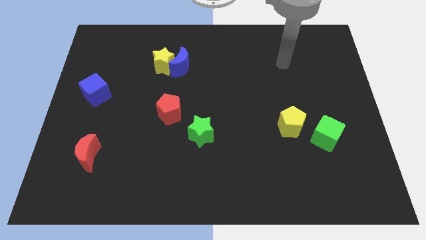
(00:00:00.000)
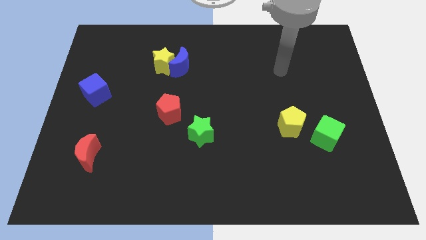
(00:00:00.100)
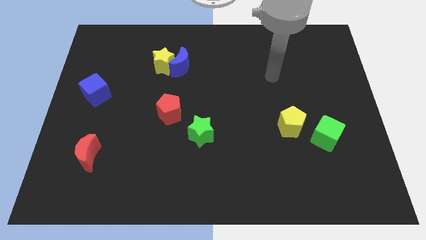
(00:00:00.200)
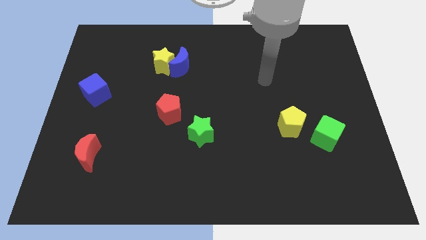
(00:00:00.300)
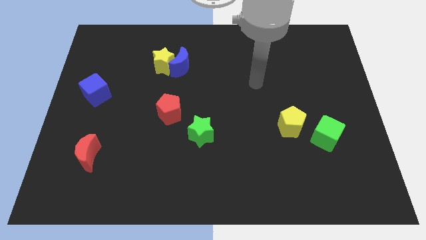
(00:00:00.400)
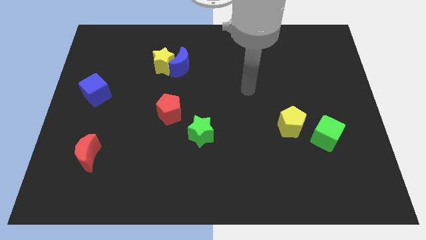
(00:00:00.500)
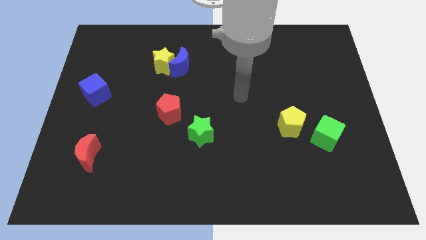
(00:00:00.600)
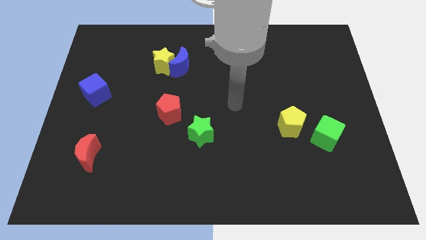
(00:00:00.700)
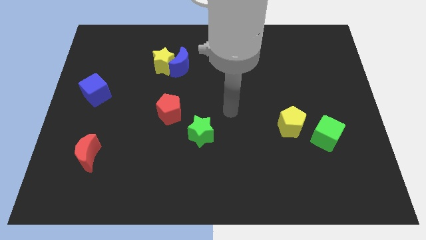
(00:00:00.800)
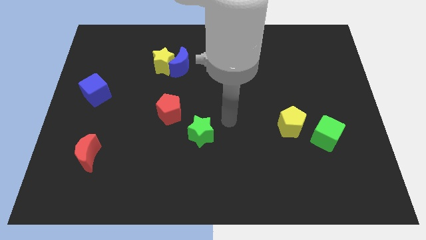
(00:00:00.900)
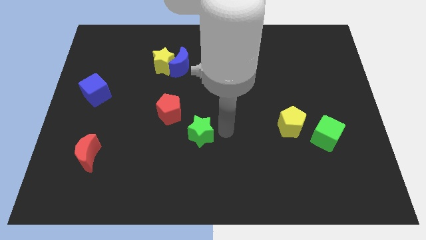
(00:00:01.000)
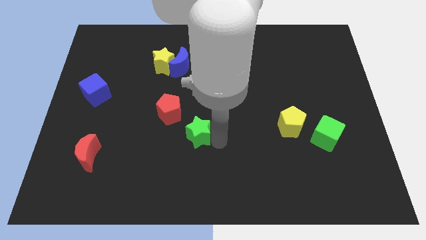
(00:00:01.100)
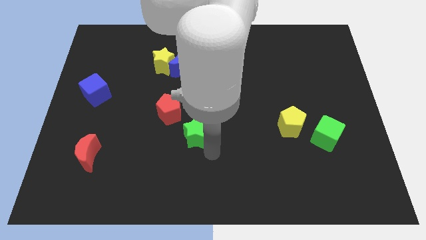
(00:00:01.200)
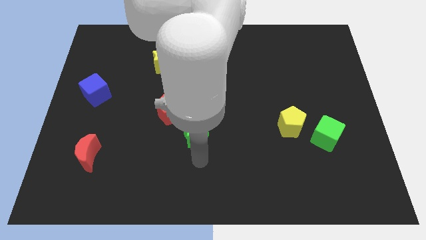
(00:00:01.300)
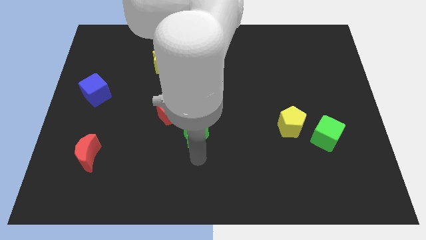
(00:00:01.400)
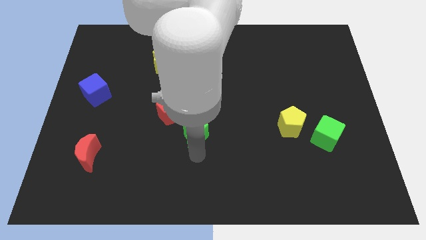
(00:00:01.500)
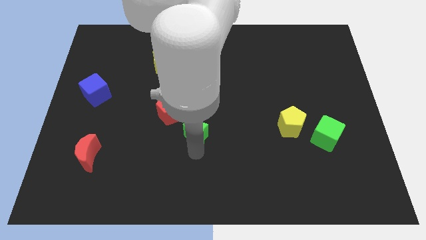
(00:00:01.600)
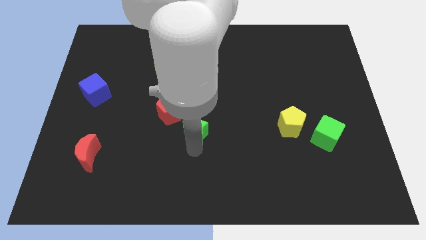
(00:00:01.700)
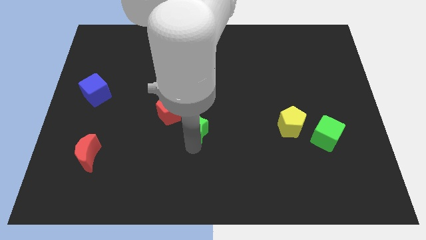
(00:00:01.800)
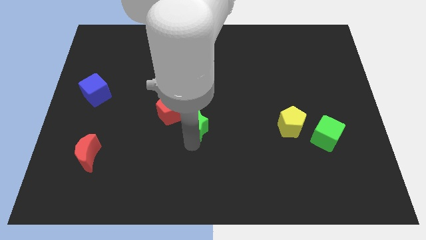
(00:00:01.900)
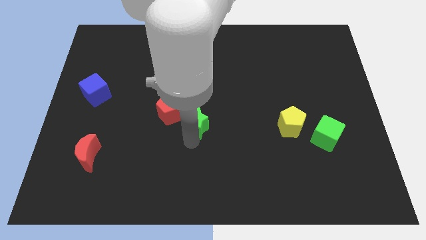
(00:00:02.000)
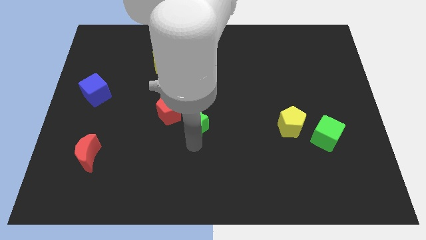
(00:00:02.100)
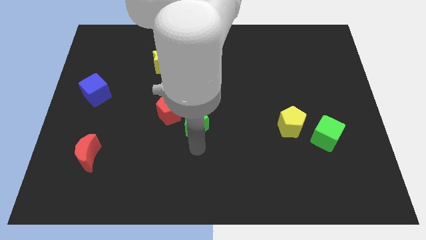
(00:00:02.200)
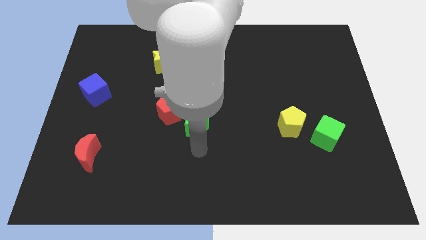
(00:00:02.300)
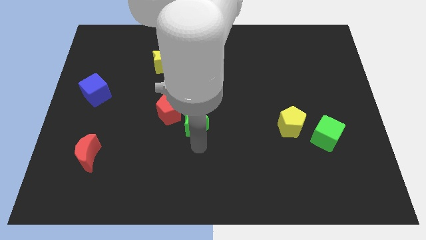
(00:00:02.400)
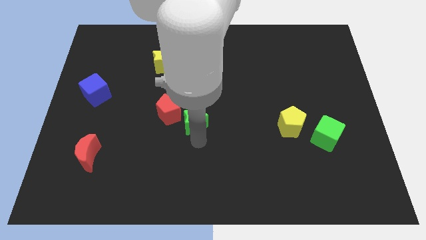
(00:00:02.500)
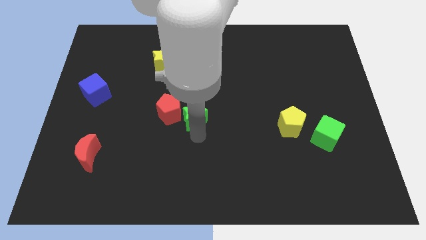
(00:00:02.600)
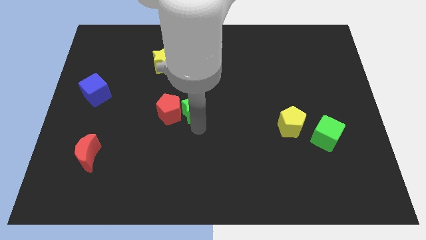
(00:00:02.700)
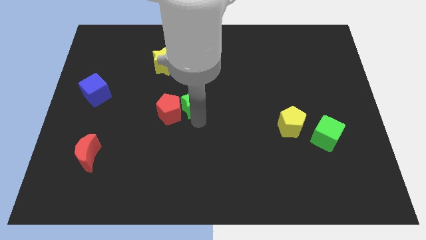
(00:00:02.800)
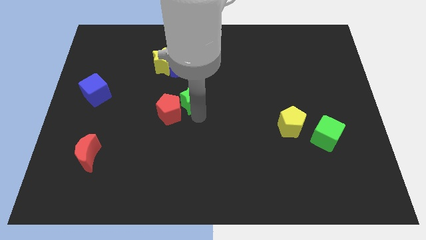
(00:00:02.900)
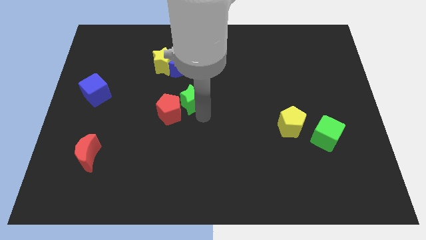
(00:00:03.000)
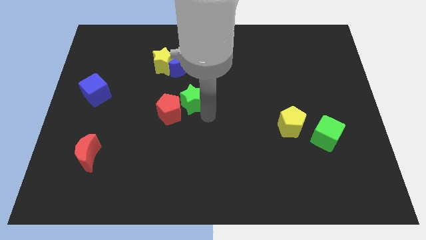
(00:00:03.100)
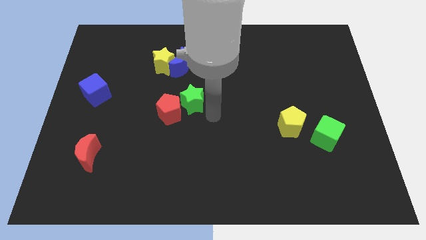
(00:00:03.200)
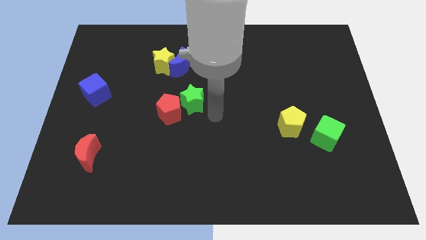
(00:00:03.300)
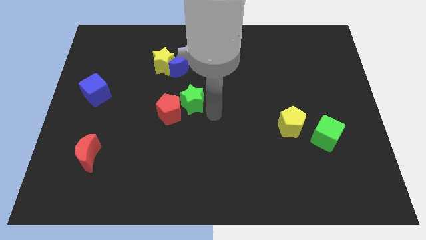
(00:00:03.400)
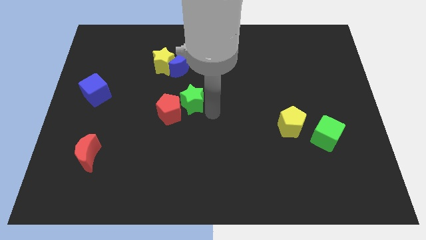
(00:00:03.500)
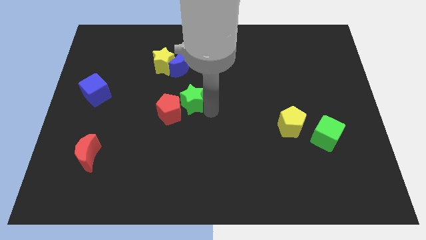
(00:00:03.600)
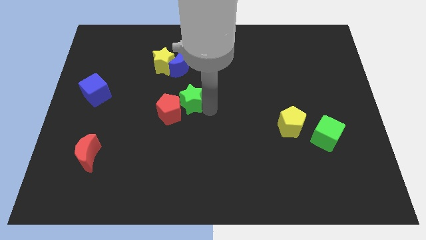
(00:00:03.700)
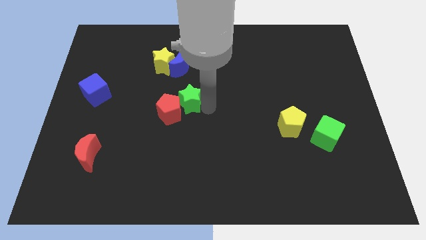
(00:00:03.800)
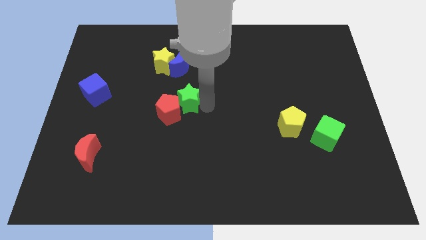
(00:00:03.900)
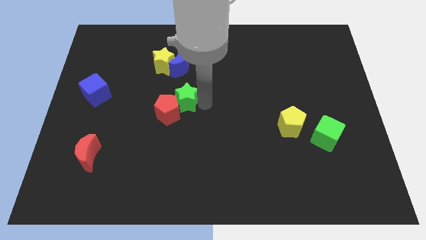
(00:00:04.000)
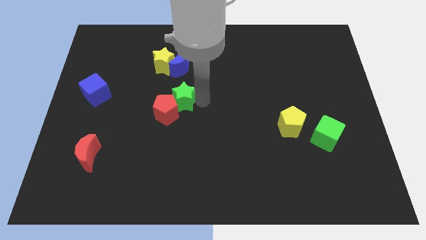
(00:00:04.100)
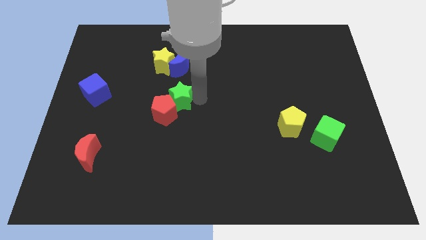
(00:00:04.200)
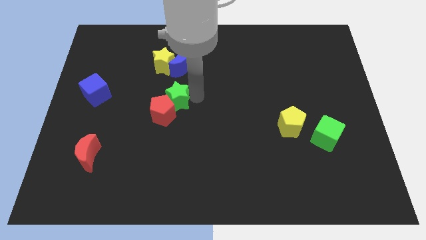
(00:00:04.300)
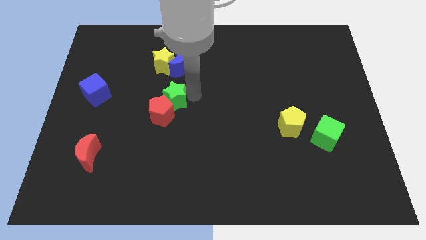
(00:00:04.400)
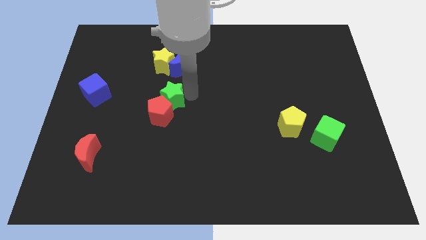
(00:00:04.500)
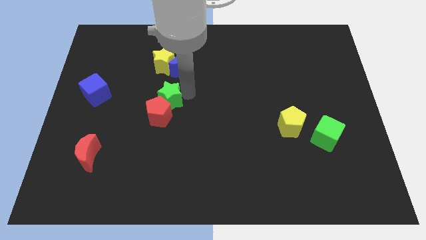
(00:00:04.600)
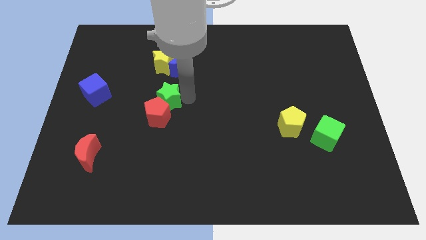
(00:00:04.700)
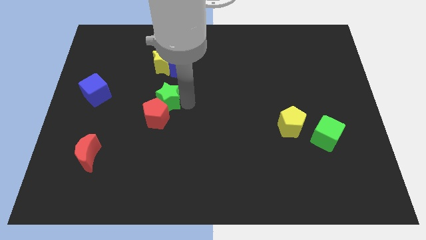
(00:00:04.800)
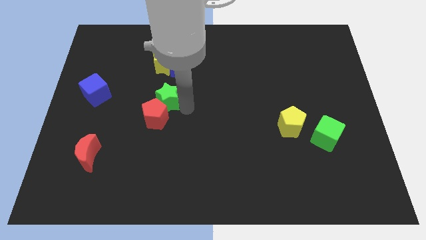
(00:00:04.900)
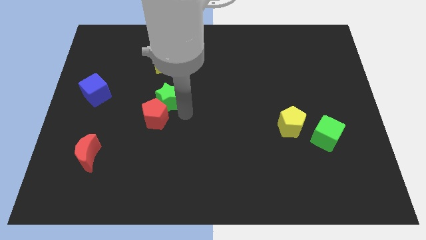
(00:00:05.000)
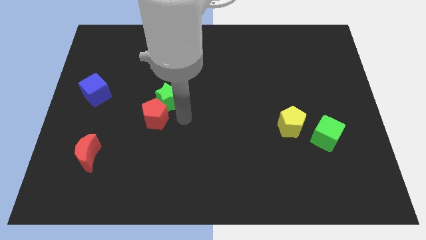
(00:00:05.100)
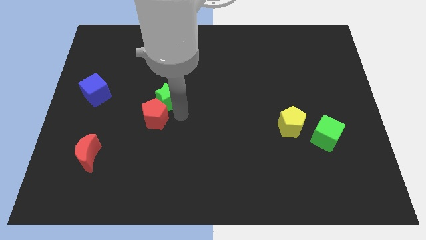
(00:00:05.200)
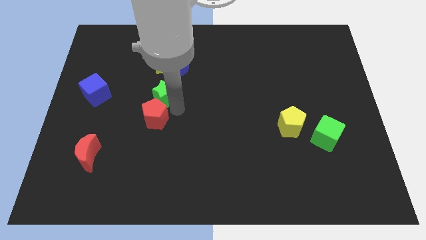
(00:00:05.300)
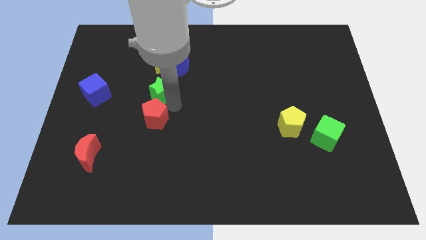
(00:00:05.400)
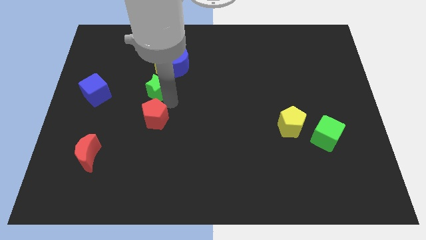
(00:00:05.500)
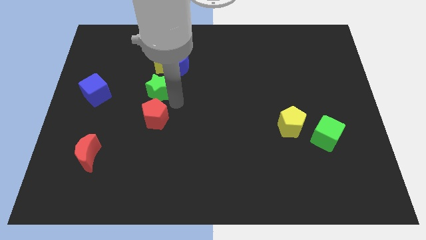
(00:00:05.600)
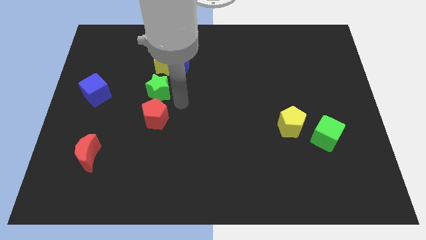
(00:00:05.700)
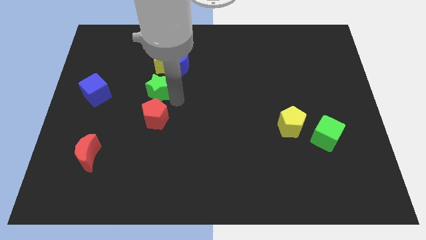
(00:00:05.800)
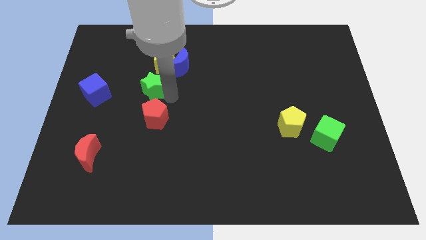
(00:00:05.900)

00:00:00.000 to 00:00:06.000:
push the green star to the bottom left side of the yellow star

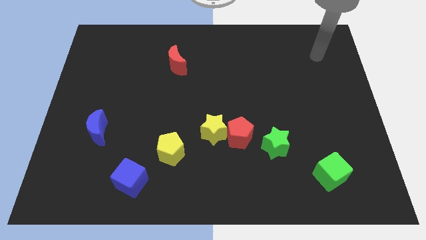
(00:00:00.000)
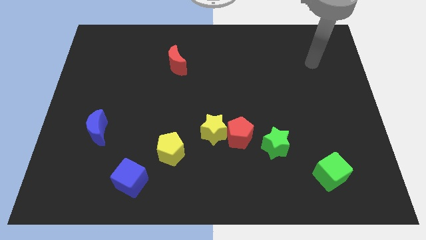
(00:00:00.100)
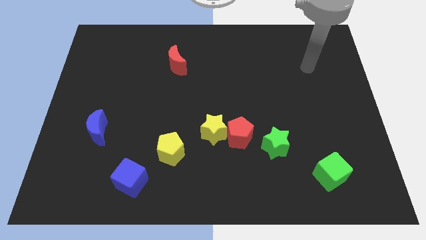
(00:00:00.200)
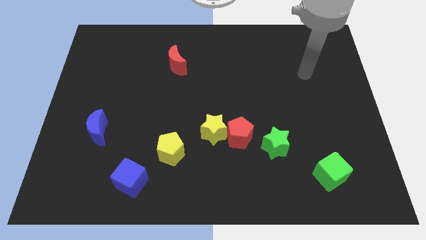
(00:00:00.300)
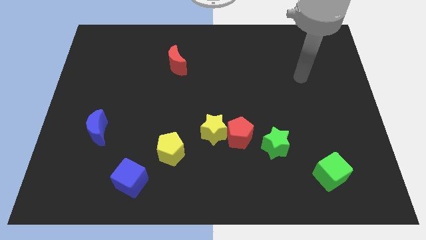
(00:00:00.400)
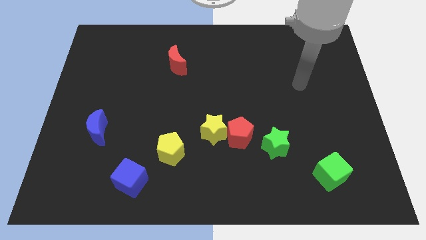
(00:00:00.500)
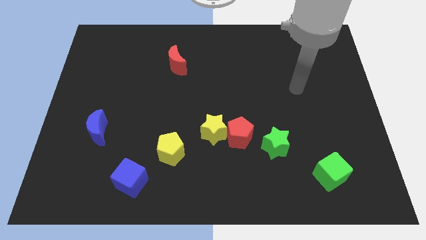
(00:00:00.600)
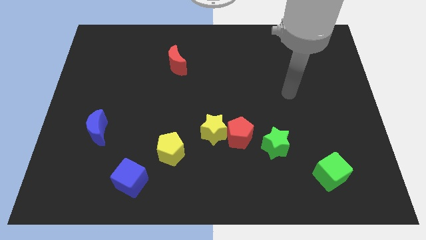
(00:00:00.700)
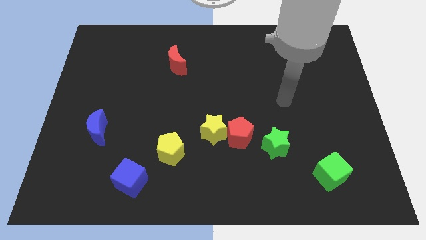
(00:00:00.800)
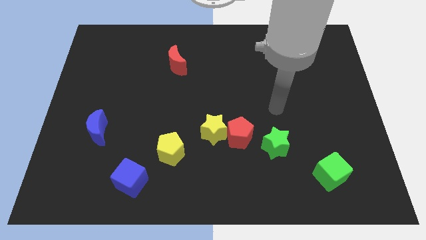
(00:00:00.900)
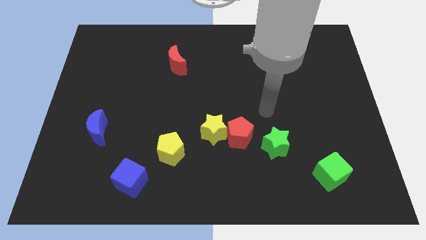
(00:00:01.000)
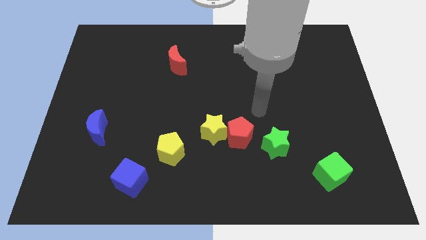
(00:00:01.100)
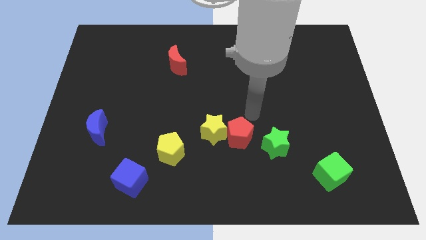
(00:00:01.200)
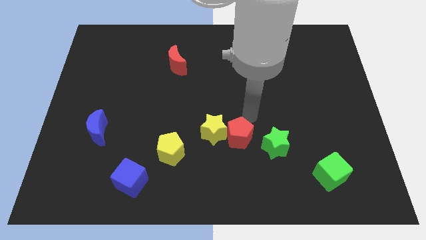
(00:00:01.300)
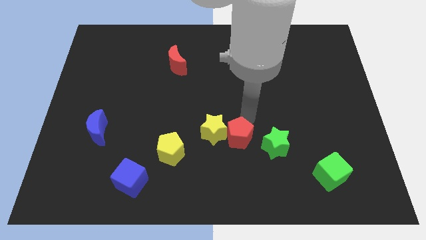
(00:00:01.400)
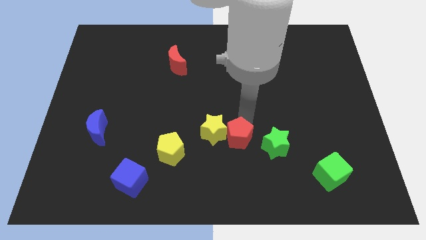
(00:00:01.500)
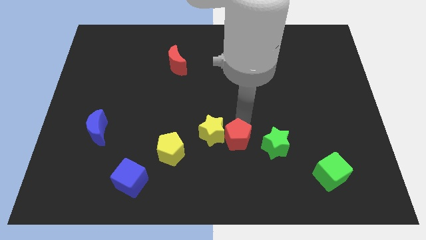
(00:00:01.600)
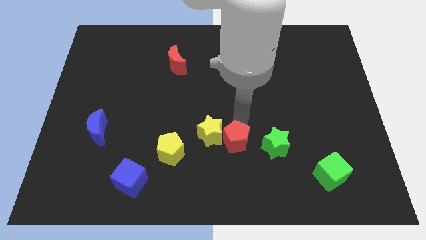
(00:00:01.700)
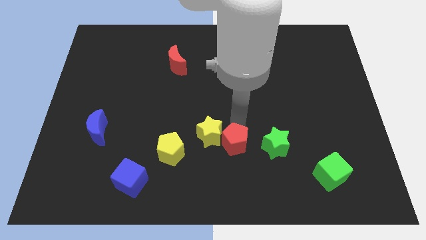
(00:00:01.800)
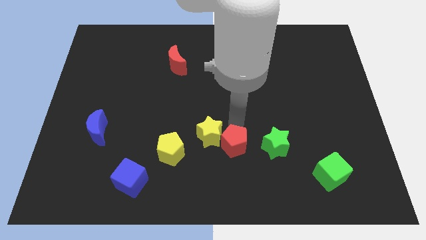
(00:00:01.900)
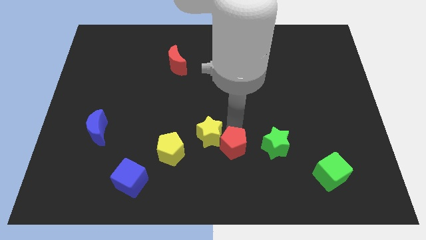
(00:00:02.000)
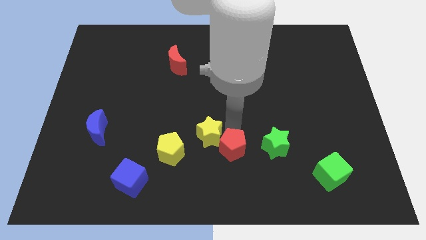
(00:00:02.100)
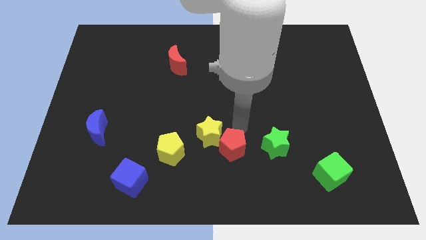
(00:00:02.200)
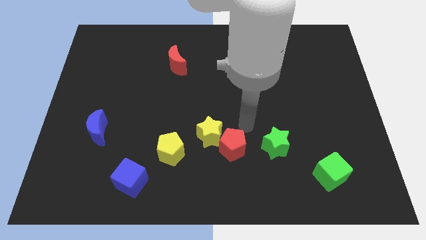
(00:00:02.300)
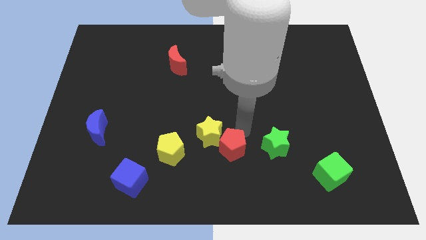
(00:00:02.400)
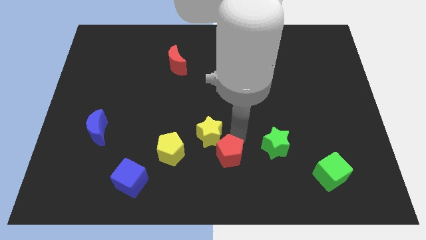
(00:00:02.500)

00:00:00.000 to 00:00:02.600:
push the red pentagon below the yellow star
